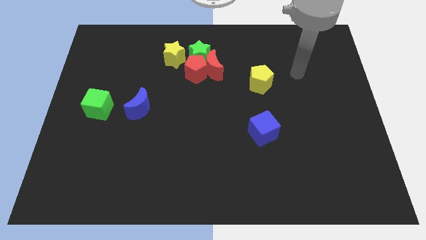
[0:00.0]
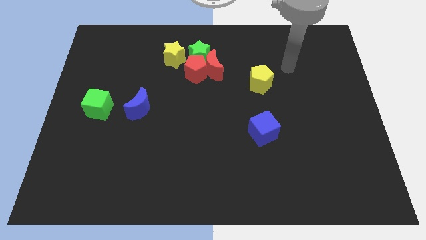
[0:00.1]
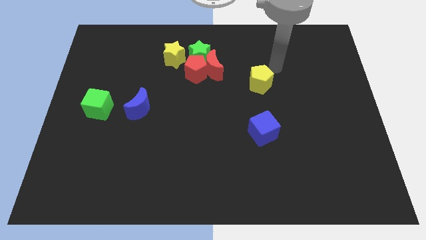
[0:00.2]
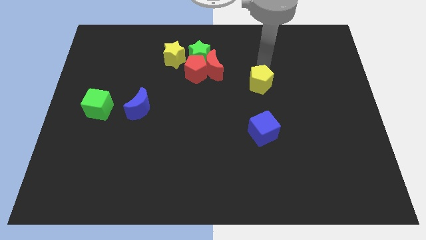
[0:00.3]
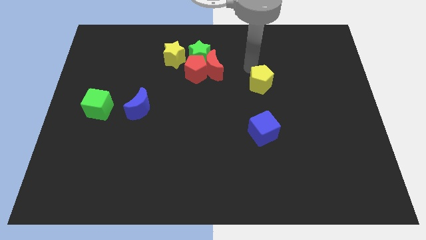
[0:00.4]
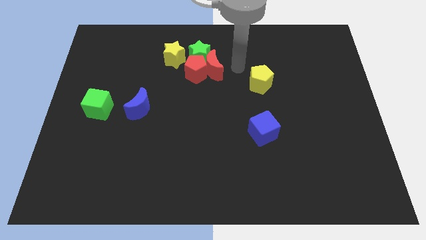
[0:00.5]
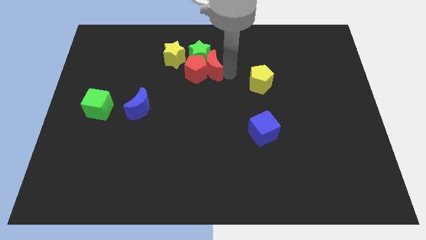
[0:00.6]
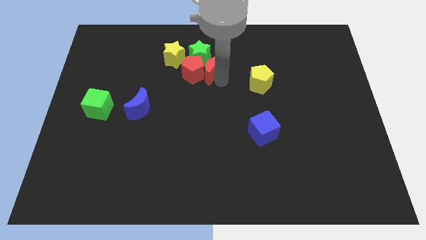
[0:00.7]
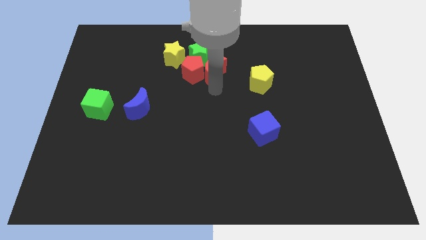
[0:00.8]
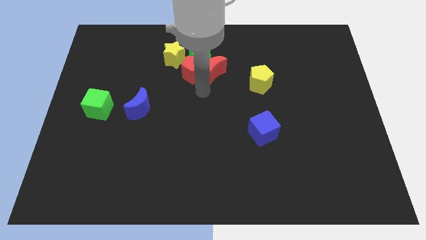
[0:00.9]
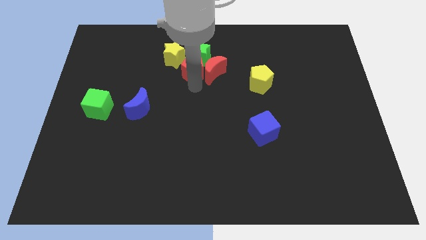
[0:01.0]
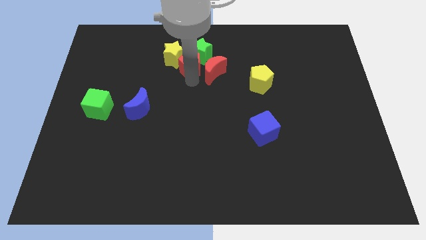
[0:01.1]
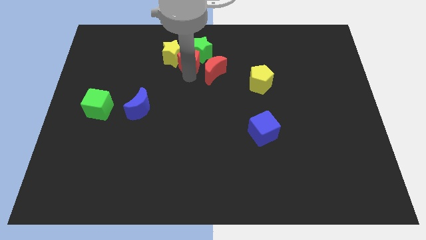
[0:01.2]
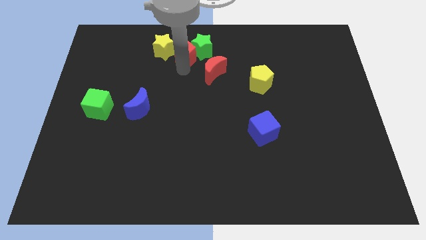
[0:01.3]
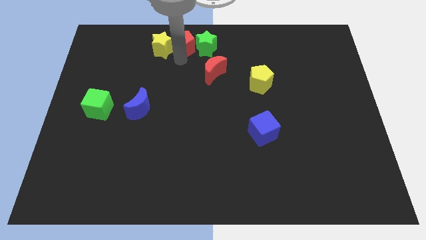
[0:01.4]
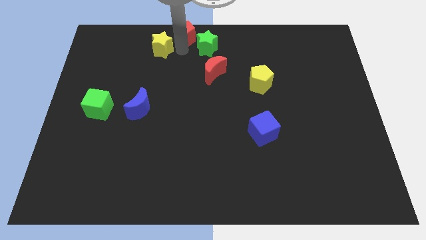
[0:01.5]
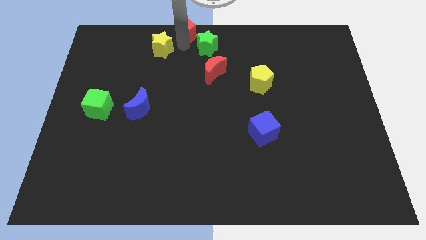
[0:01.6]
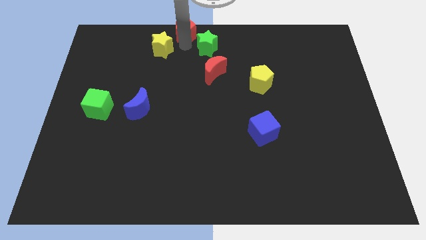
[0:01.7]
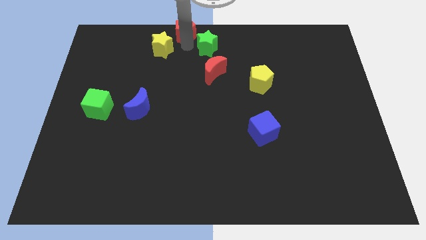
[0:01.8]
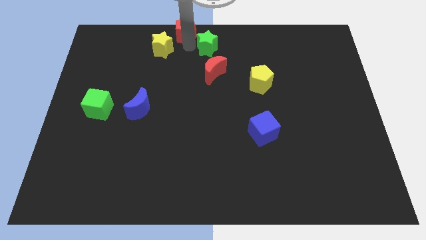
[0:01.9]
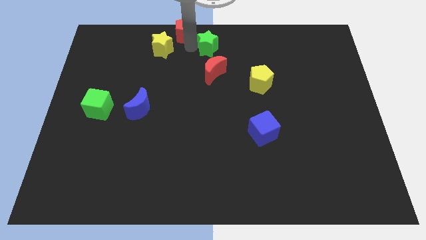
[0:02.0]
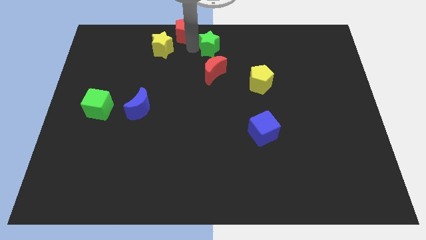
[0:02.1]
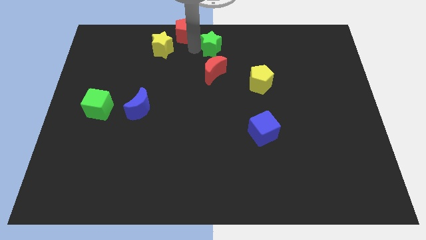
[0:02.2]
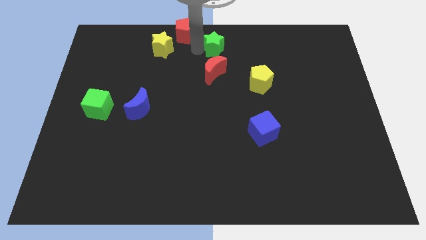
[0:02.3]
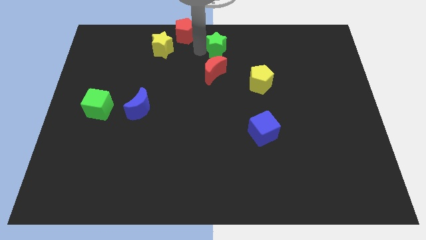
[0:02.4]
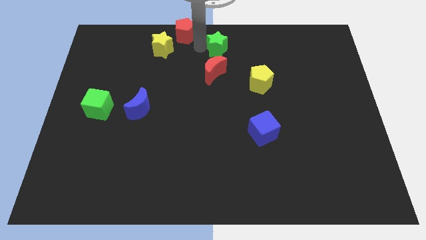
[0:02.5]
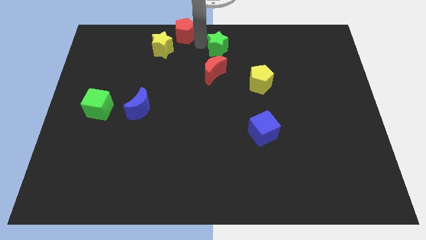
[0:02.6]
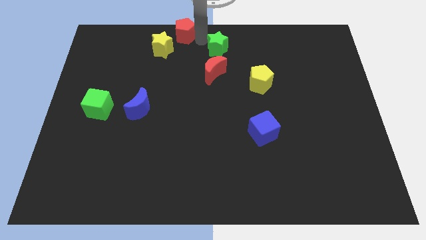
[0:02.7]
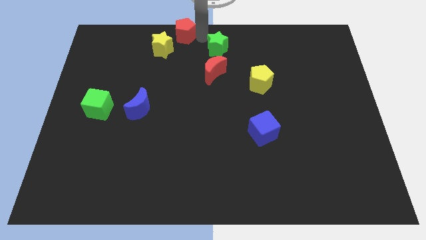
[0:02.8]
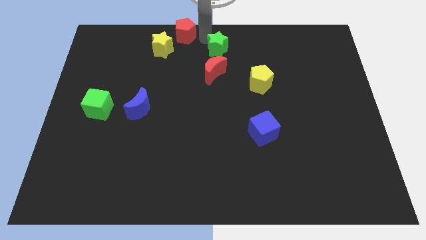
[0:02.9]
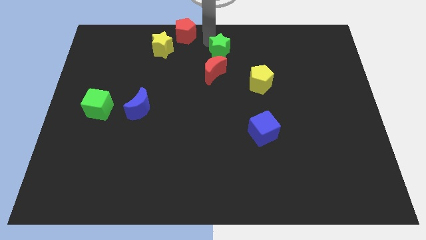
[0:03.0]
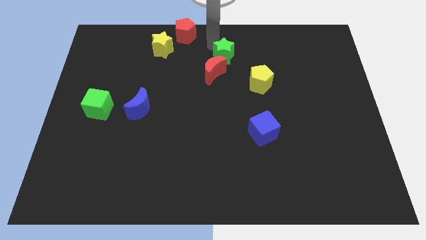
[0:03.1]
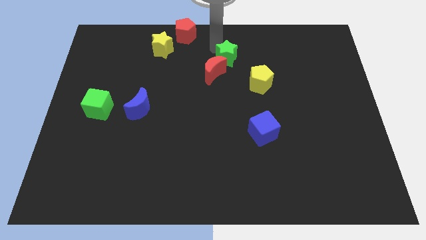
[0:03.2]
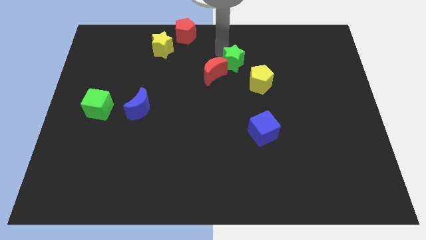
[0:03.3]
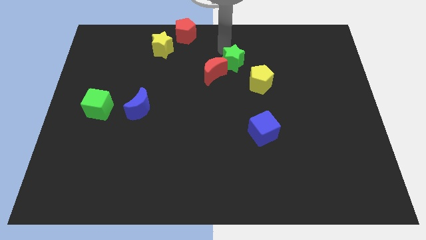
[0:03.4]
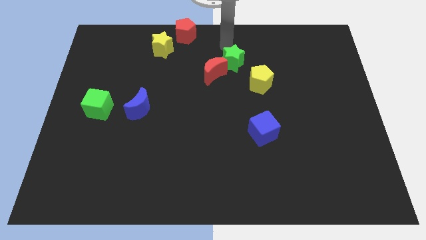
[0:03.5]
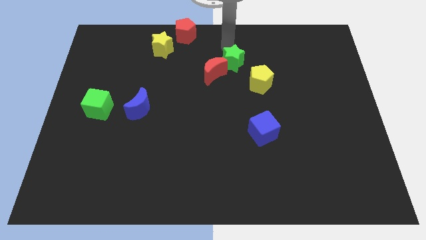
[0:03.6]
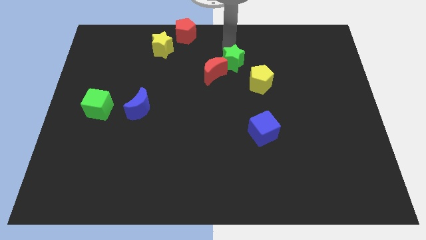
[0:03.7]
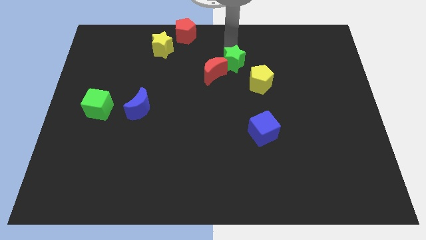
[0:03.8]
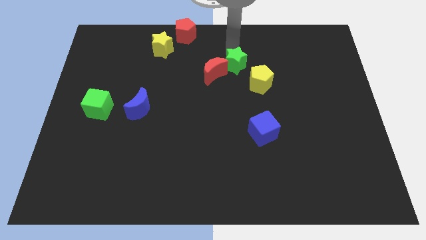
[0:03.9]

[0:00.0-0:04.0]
slightly slide the green star down and then to the right

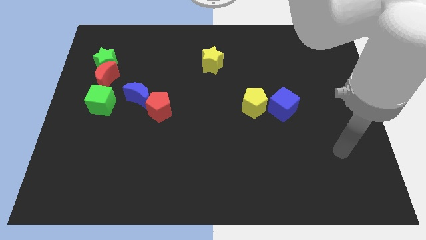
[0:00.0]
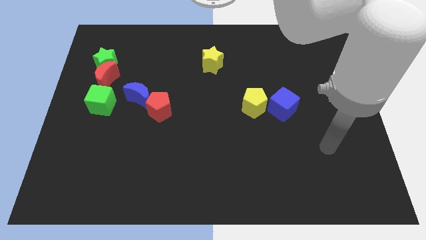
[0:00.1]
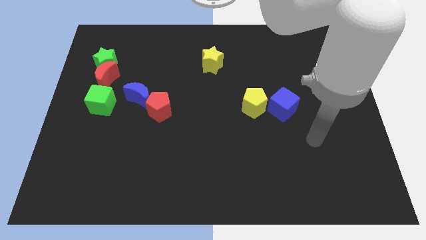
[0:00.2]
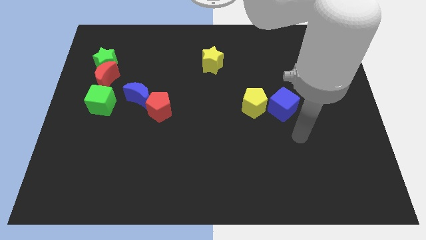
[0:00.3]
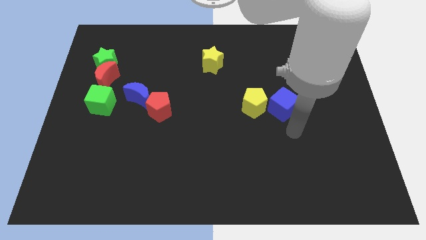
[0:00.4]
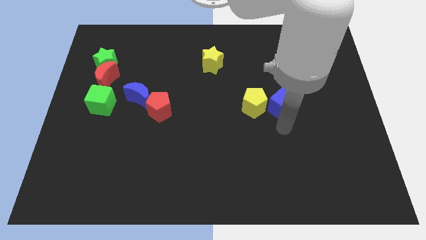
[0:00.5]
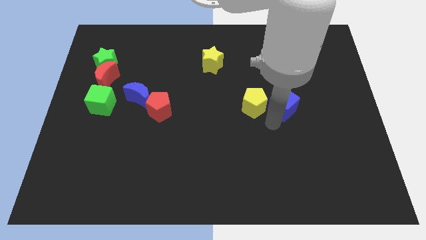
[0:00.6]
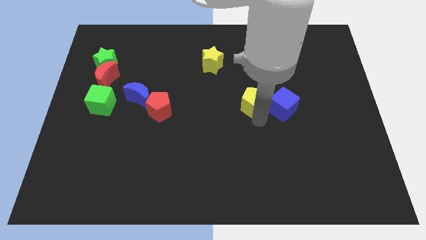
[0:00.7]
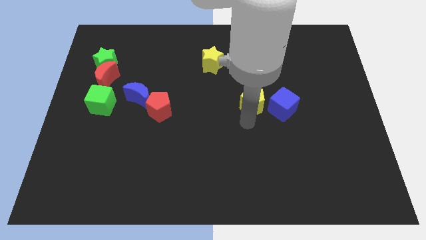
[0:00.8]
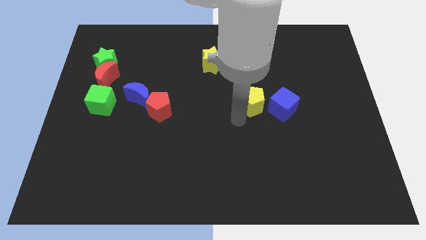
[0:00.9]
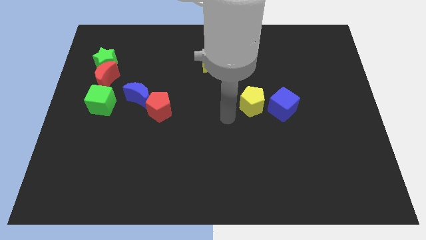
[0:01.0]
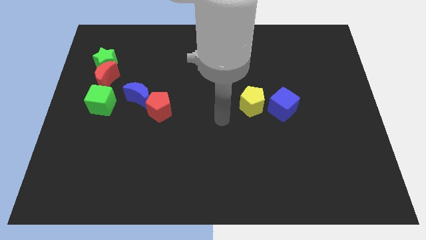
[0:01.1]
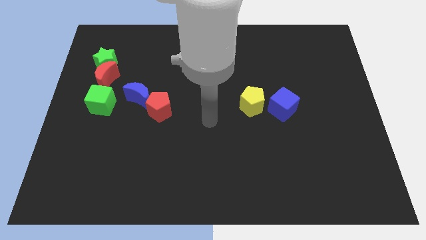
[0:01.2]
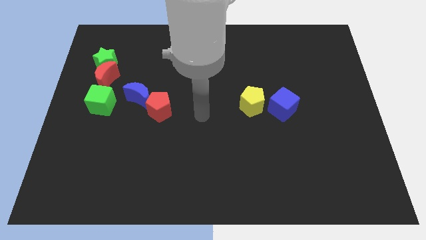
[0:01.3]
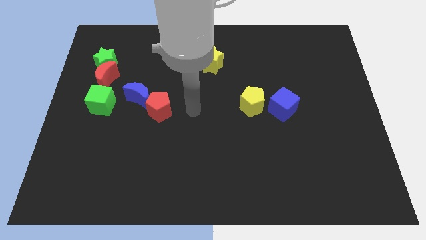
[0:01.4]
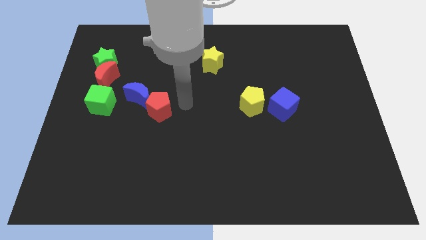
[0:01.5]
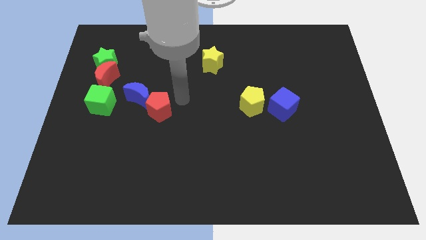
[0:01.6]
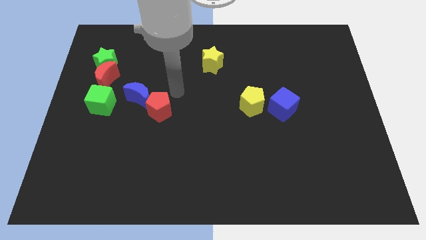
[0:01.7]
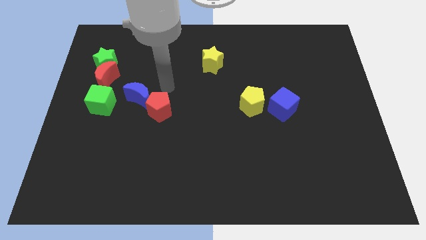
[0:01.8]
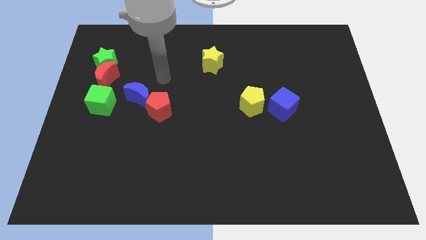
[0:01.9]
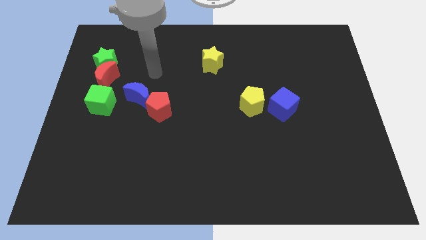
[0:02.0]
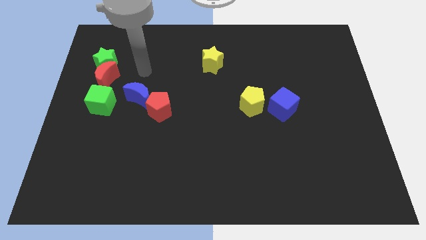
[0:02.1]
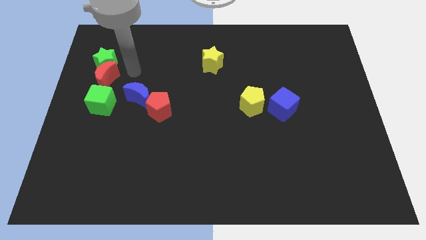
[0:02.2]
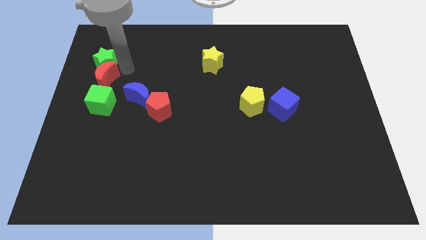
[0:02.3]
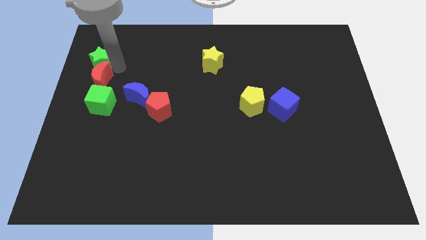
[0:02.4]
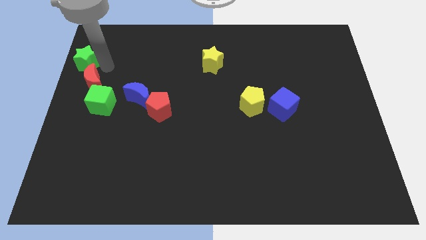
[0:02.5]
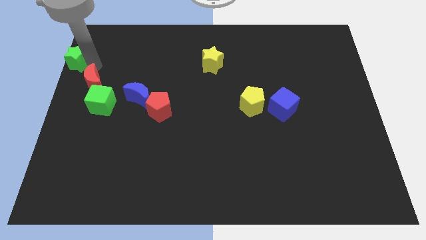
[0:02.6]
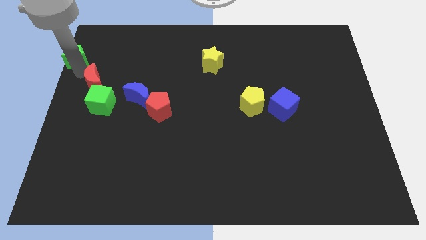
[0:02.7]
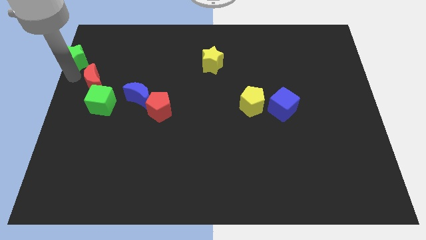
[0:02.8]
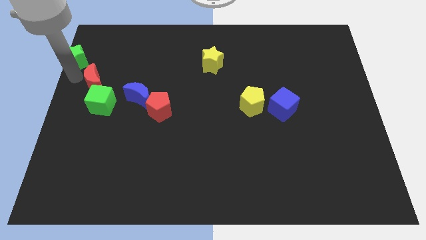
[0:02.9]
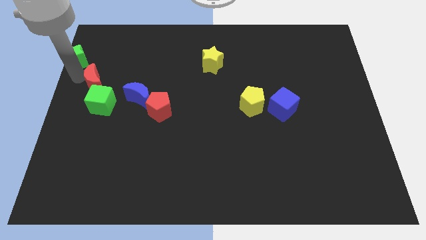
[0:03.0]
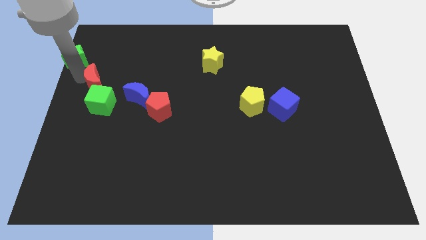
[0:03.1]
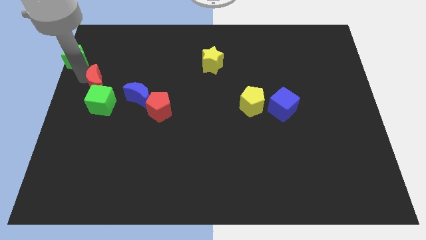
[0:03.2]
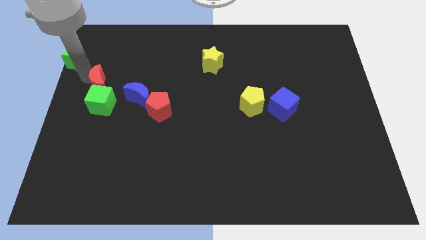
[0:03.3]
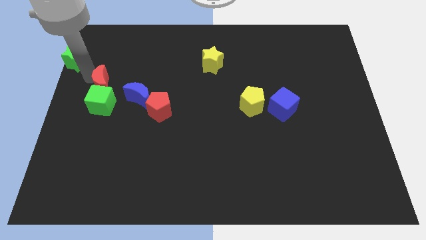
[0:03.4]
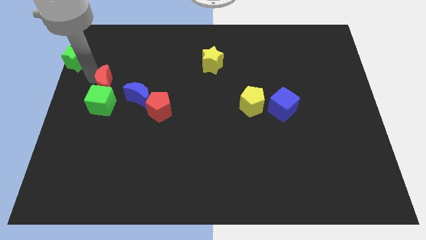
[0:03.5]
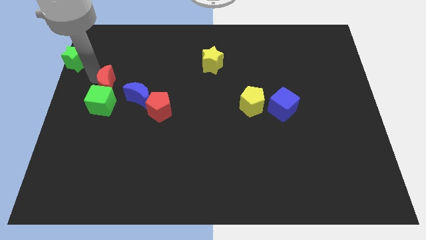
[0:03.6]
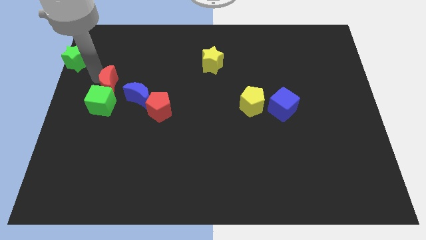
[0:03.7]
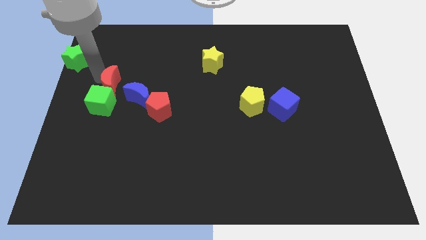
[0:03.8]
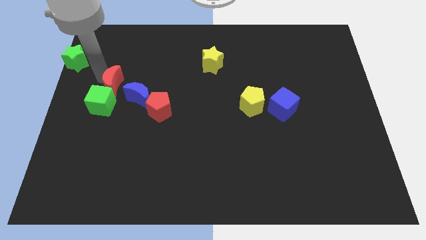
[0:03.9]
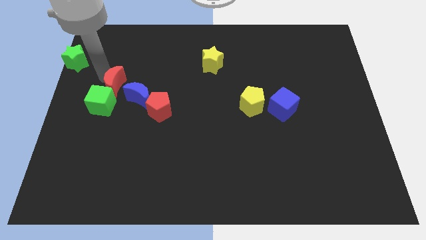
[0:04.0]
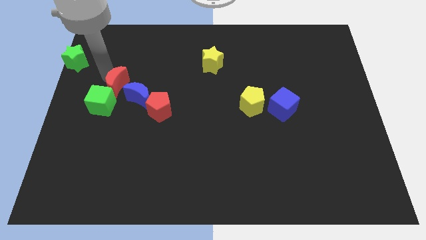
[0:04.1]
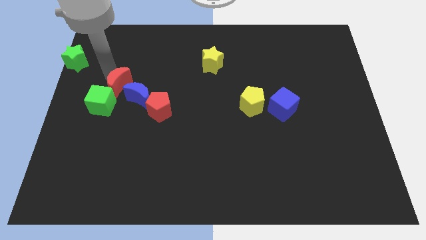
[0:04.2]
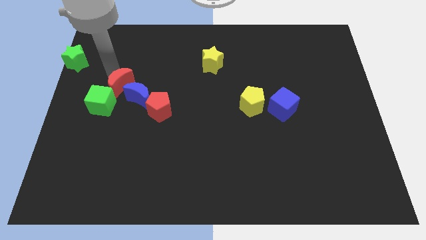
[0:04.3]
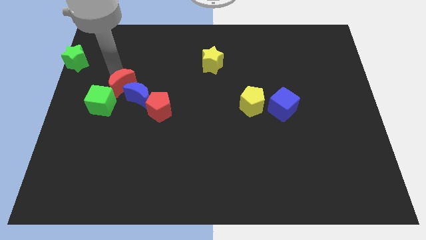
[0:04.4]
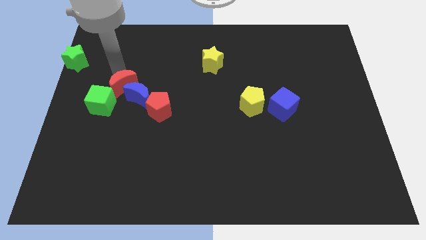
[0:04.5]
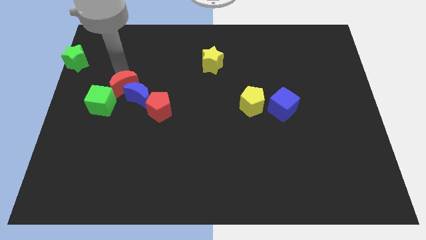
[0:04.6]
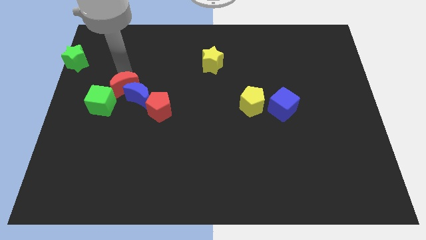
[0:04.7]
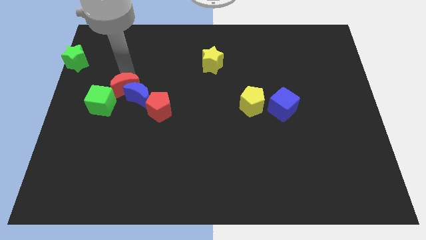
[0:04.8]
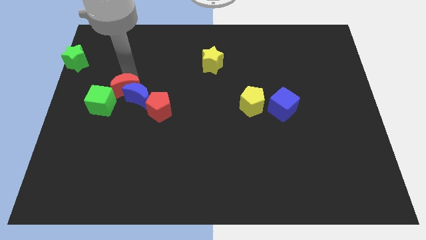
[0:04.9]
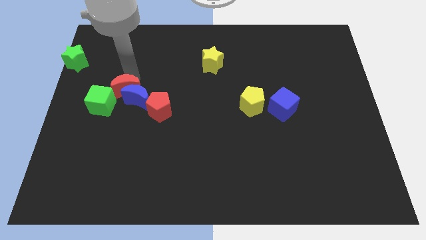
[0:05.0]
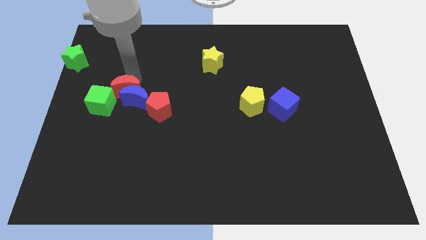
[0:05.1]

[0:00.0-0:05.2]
slightly move the red moon diagonally down and to the right
